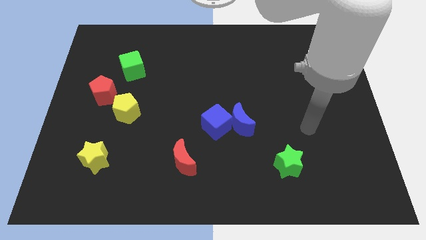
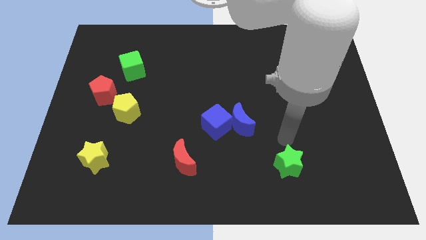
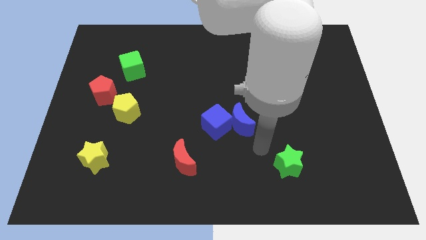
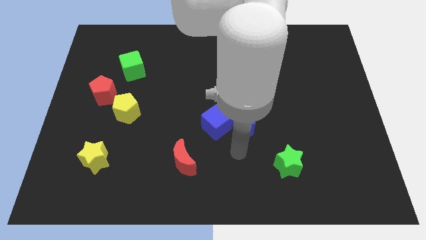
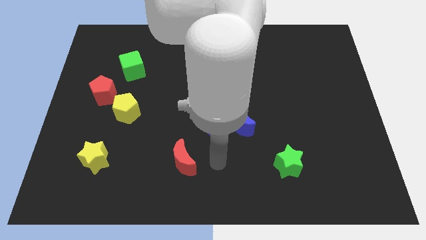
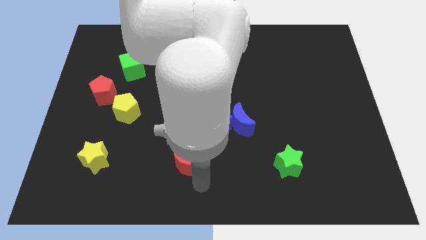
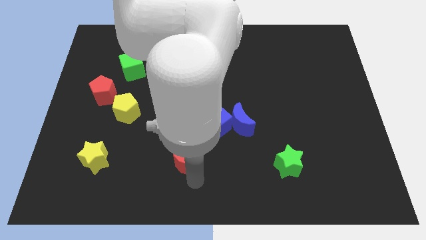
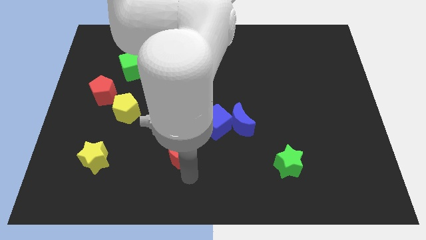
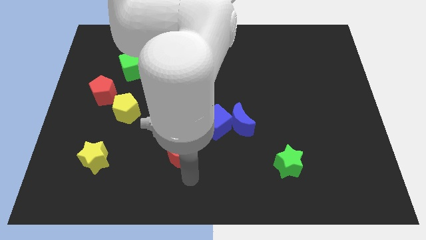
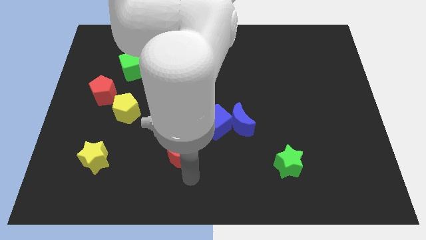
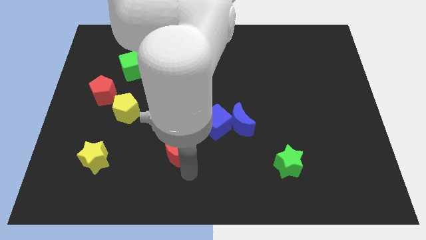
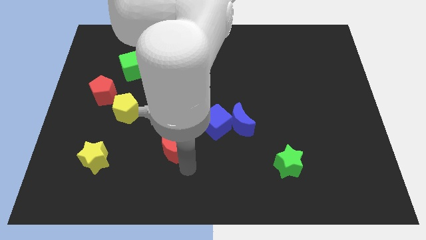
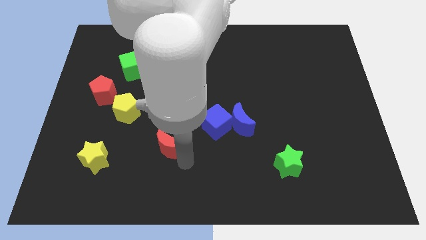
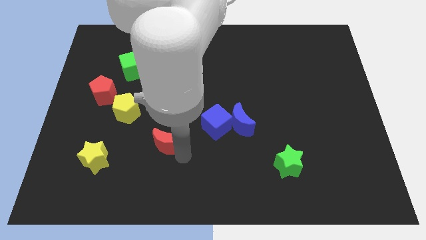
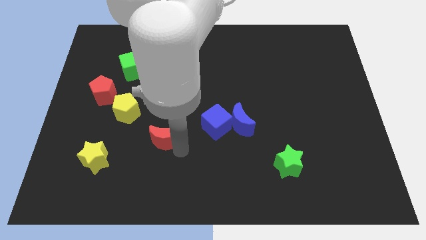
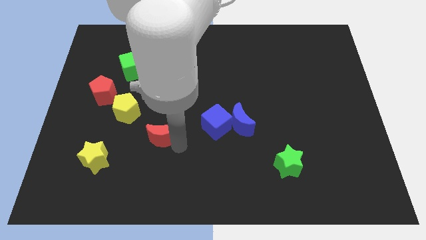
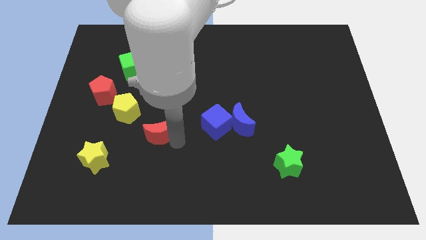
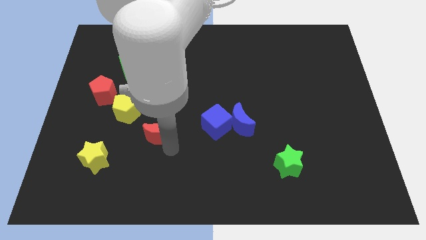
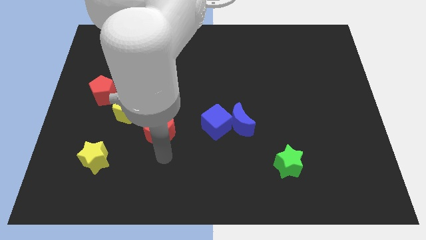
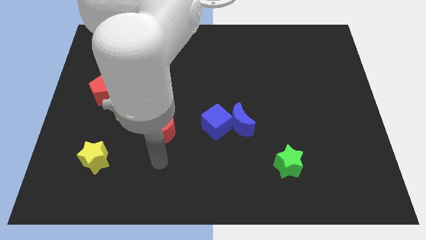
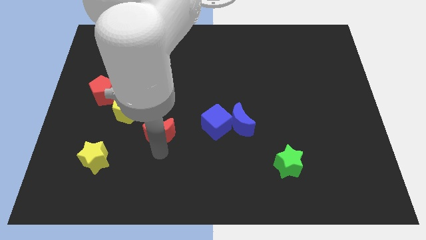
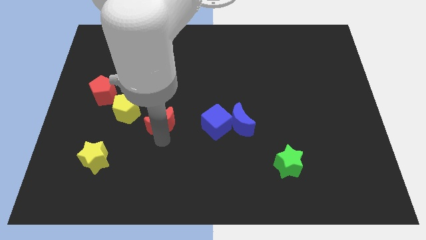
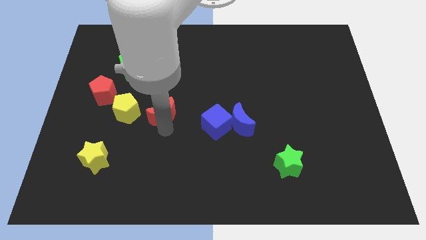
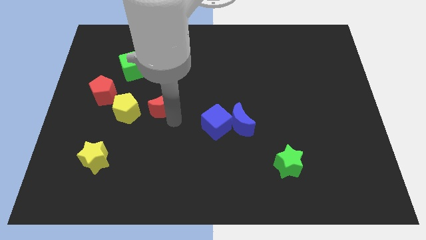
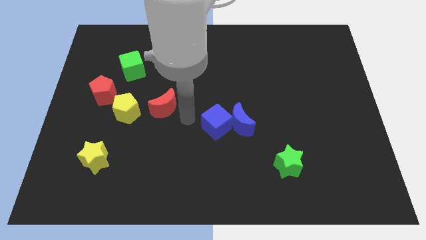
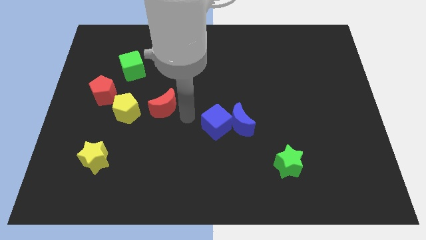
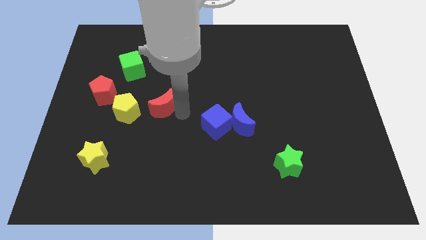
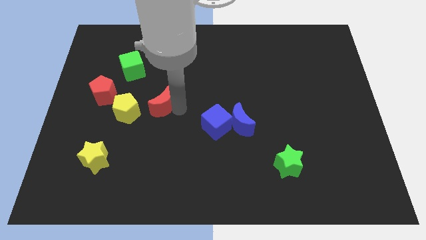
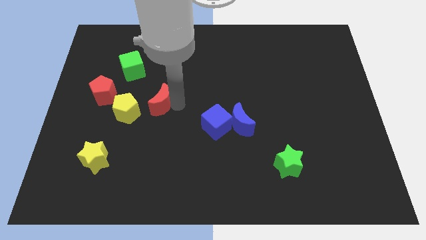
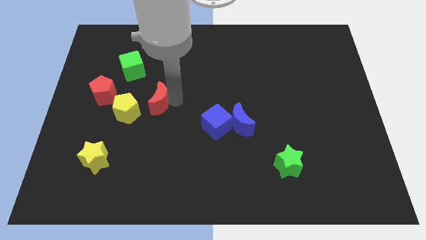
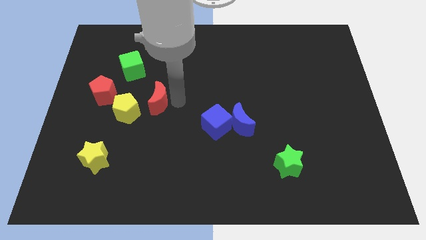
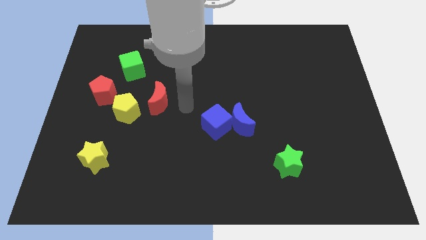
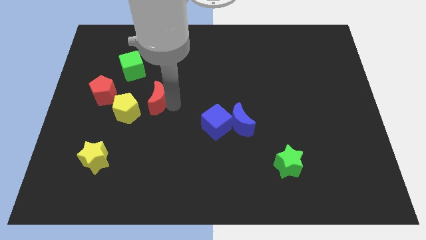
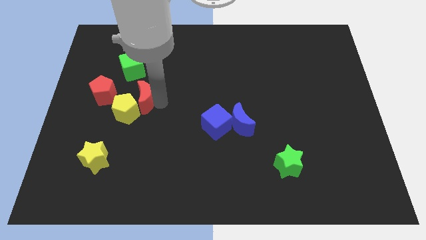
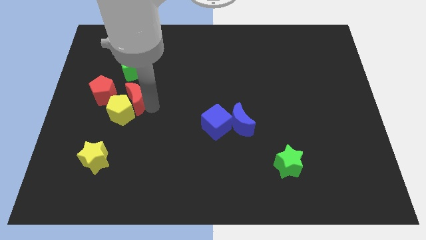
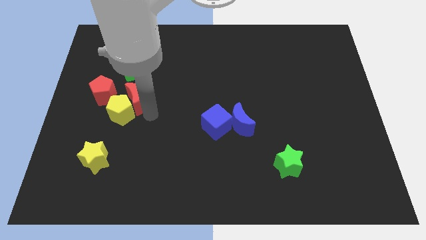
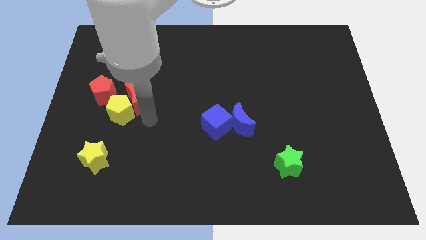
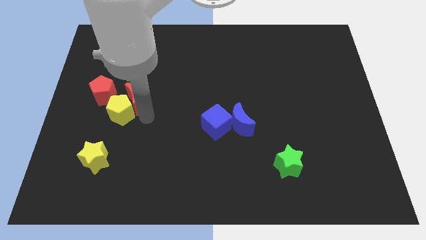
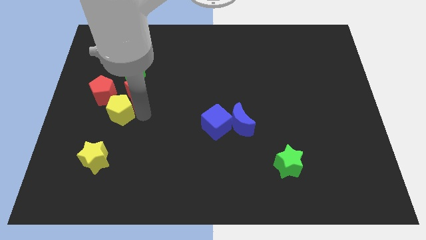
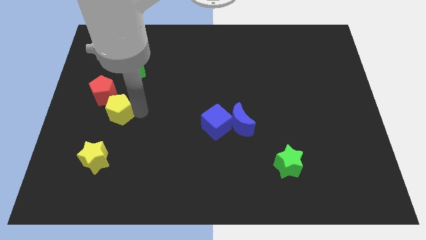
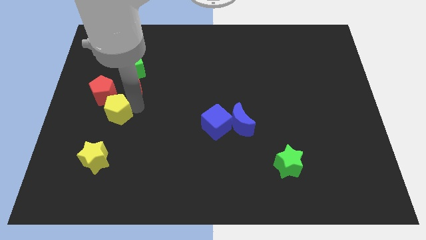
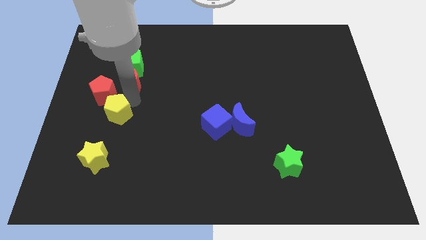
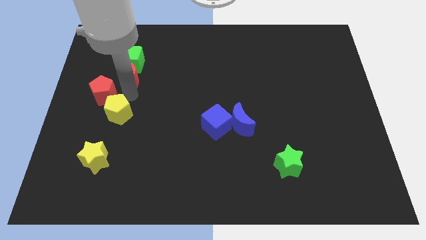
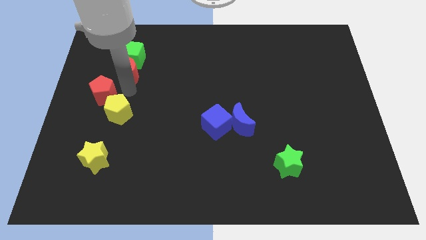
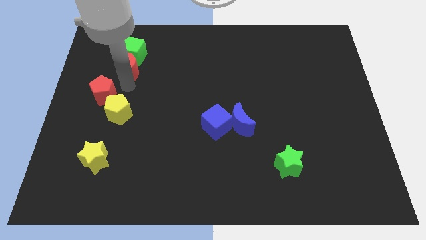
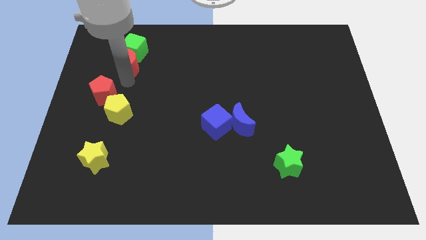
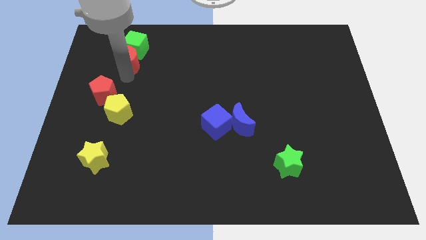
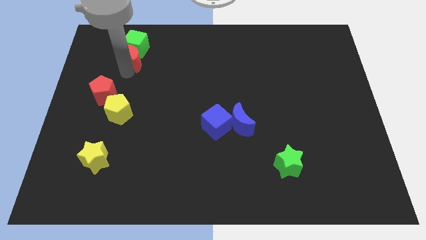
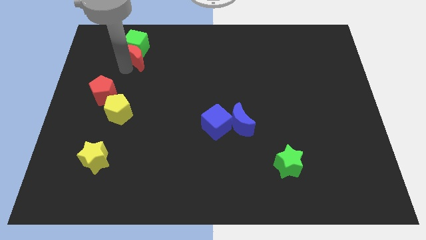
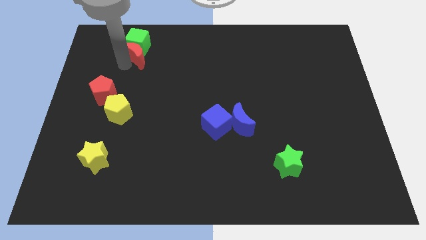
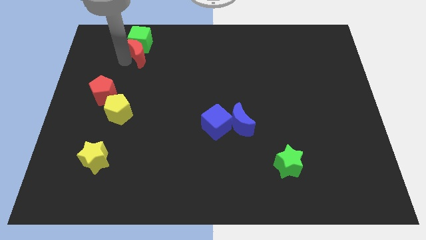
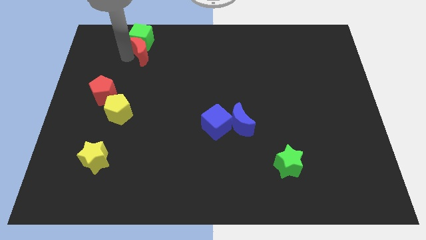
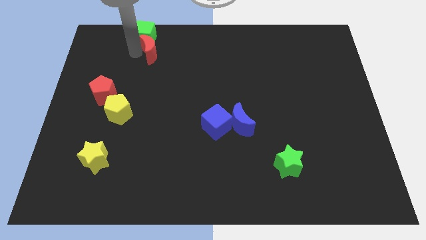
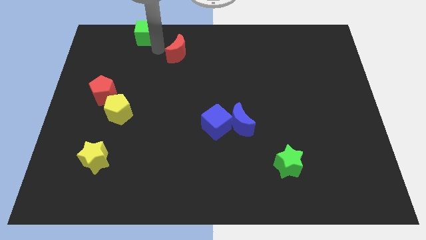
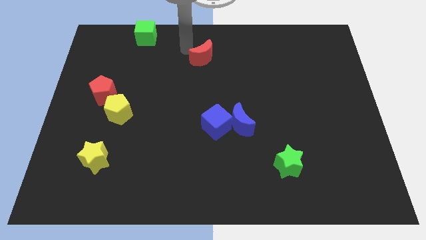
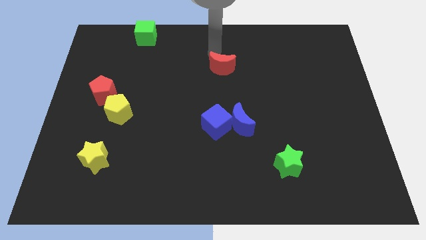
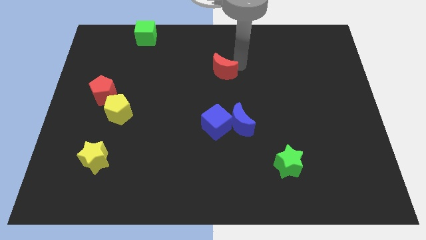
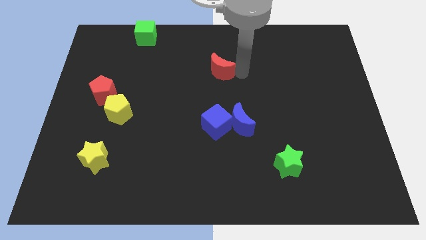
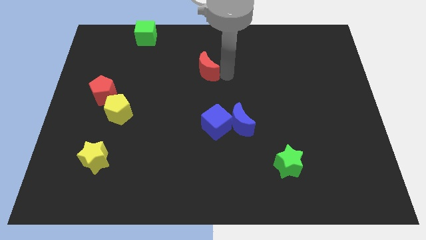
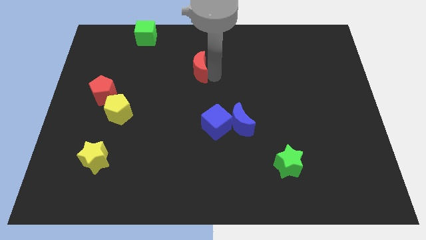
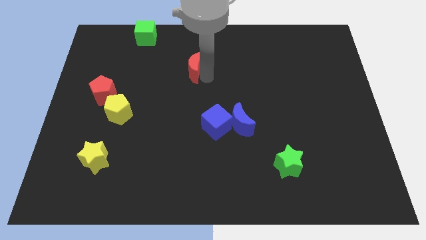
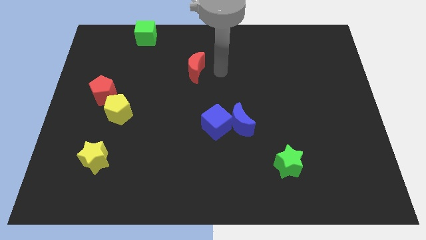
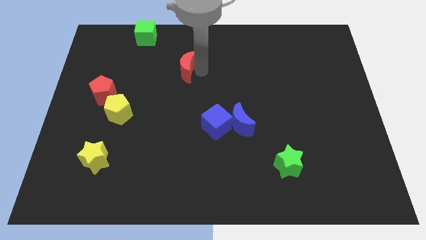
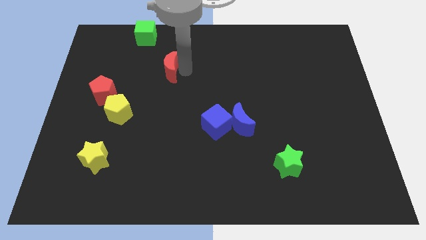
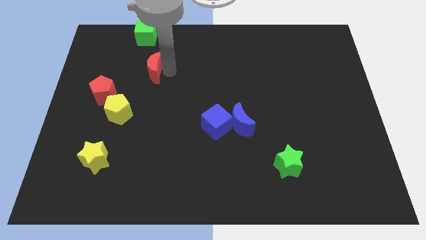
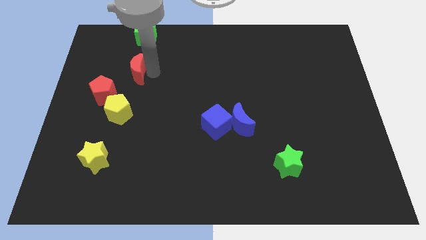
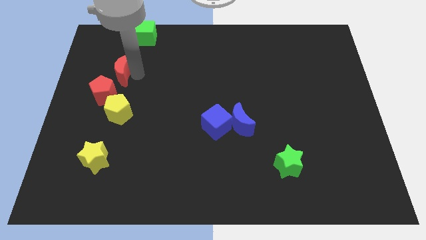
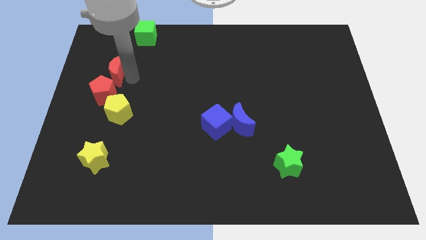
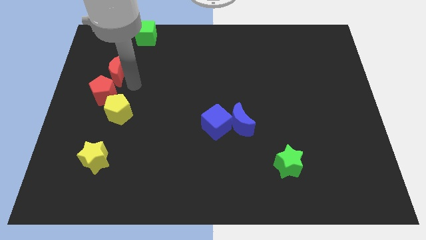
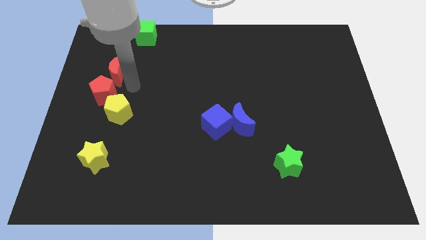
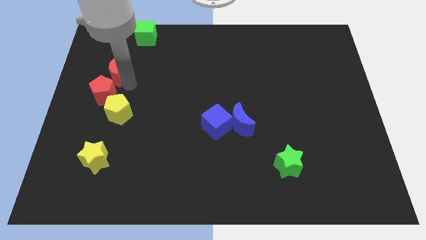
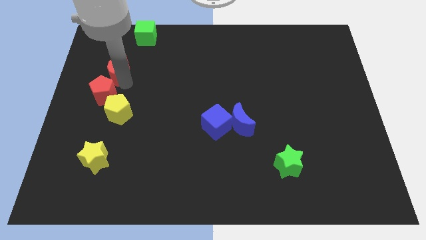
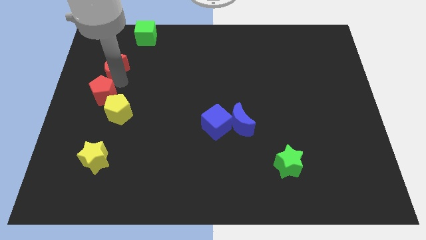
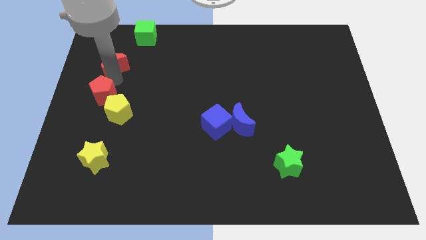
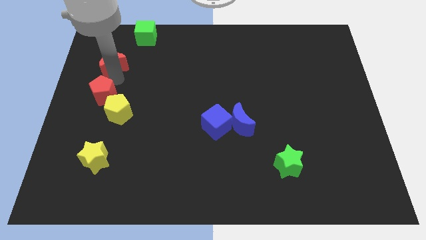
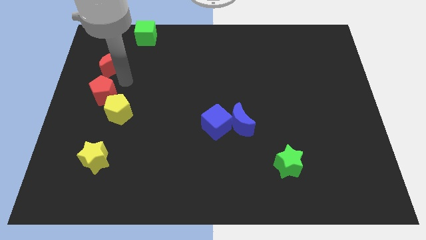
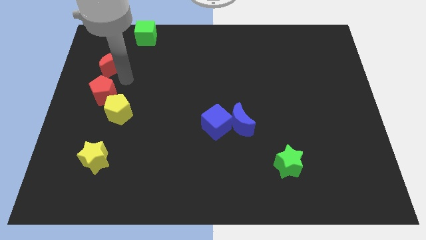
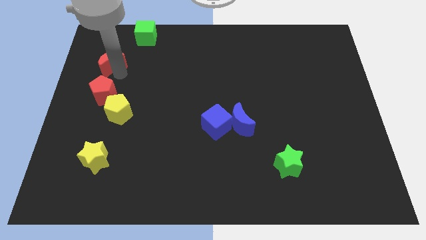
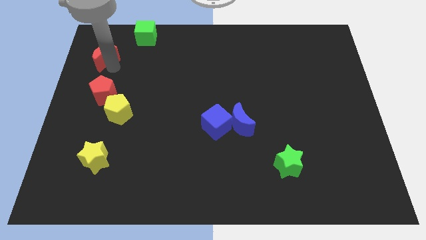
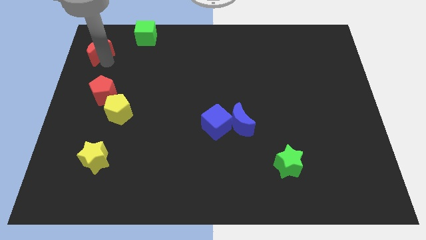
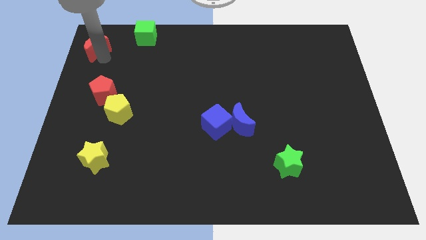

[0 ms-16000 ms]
move the red moon to the top left
